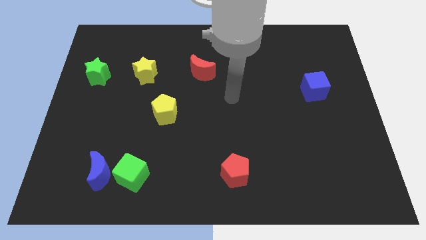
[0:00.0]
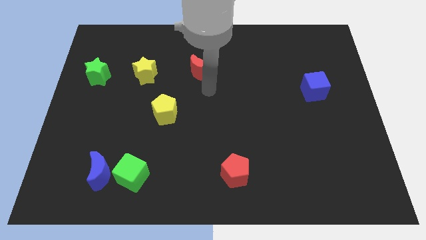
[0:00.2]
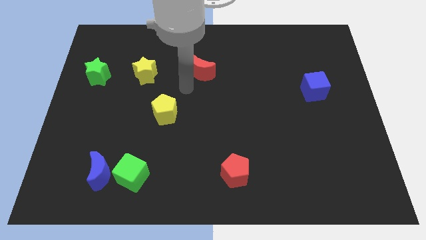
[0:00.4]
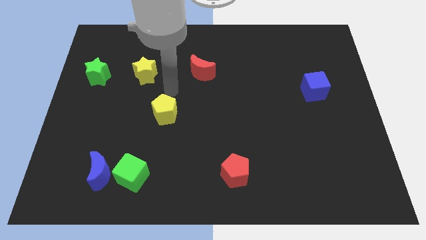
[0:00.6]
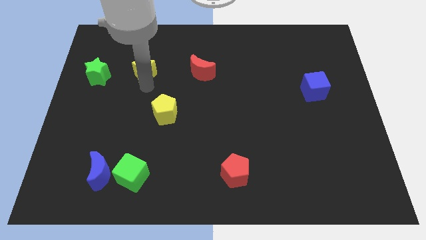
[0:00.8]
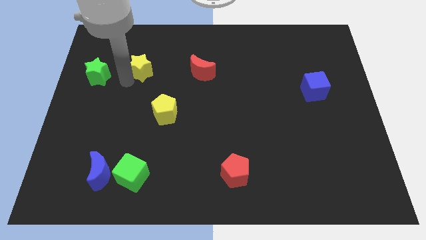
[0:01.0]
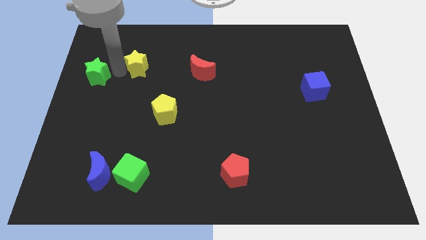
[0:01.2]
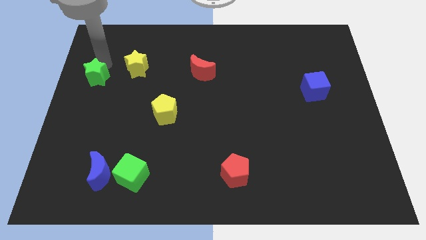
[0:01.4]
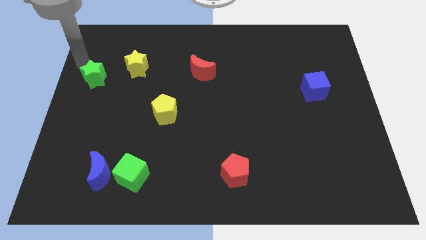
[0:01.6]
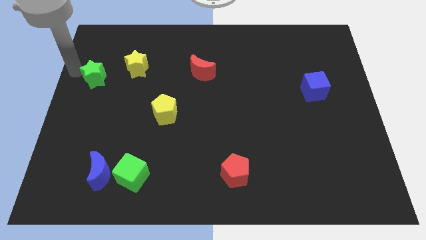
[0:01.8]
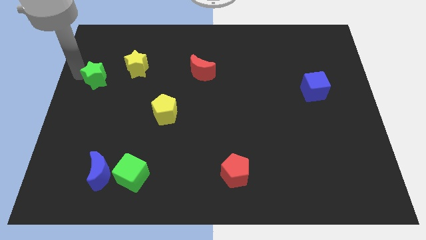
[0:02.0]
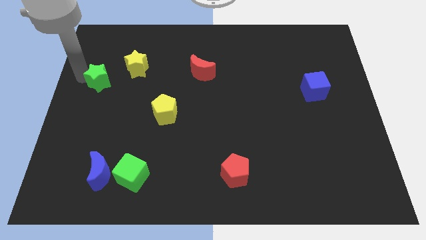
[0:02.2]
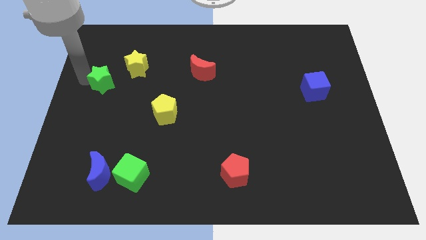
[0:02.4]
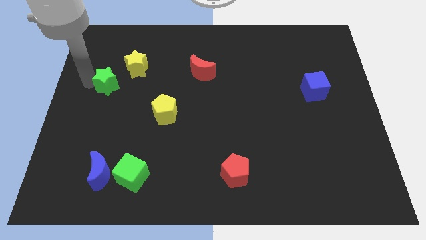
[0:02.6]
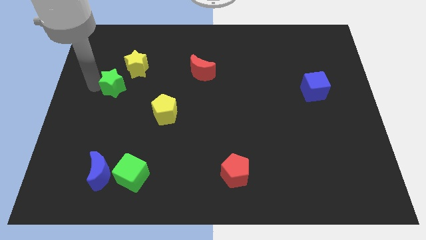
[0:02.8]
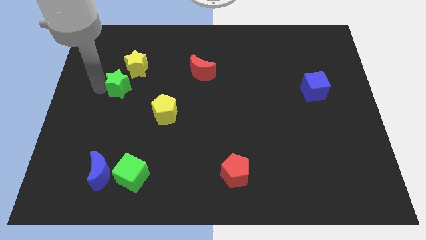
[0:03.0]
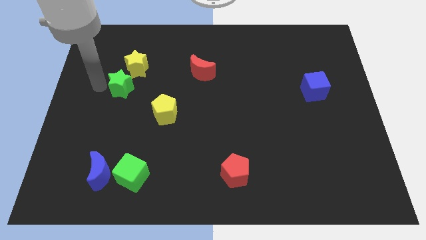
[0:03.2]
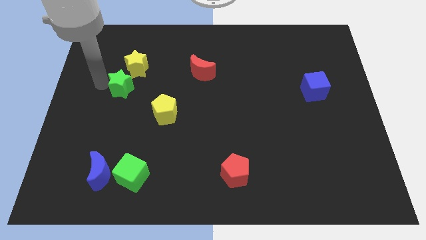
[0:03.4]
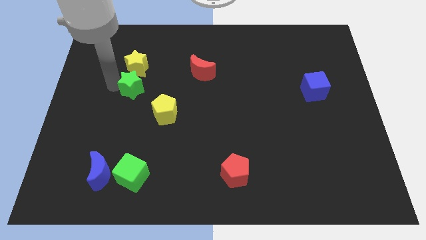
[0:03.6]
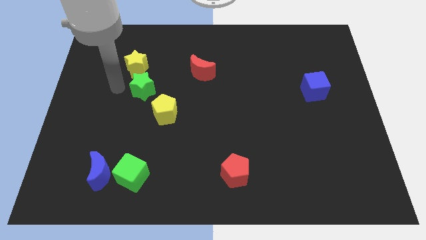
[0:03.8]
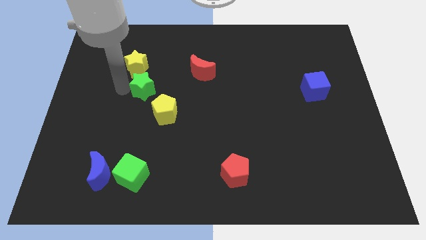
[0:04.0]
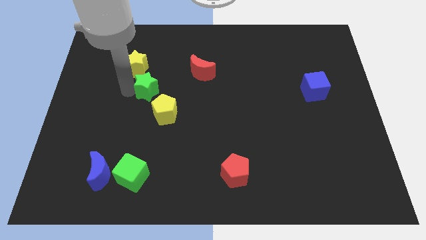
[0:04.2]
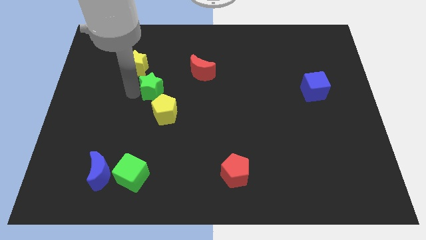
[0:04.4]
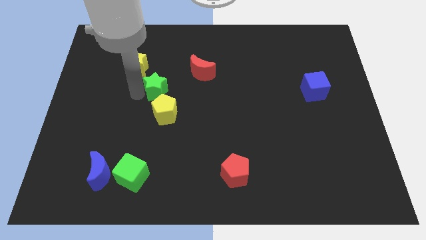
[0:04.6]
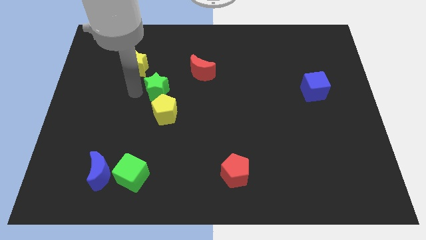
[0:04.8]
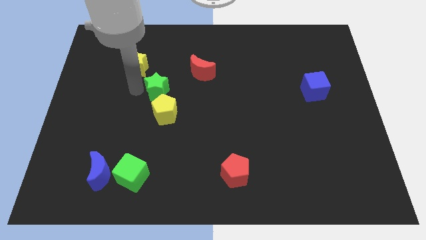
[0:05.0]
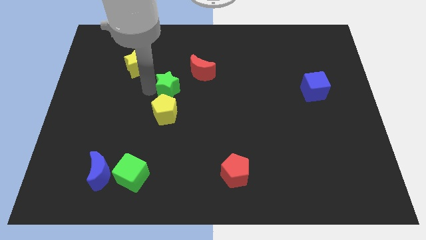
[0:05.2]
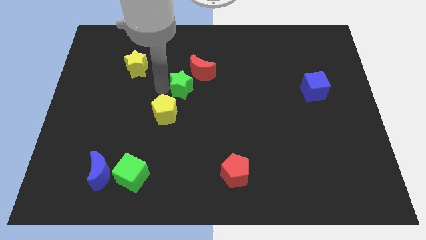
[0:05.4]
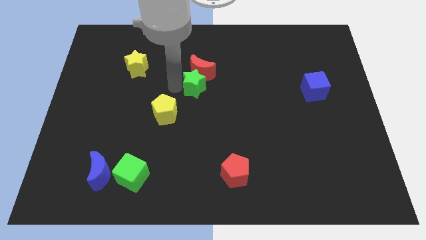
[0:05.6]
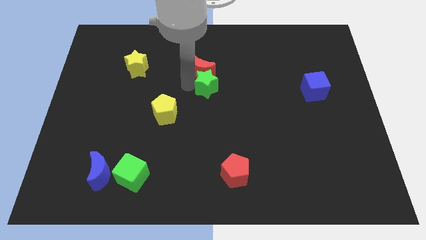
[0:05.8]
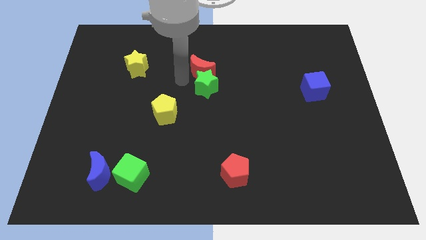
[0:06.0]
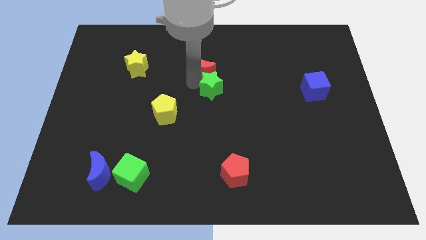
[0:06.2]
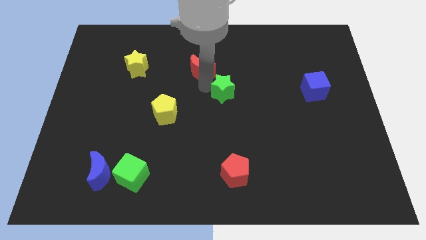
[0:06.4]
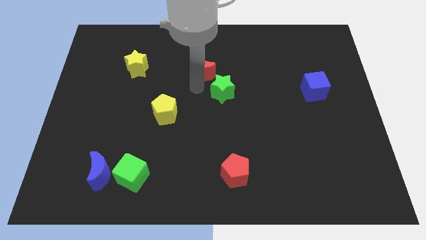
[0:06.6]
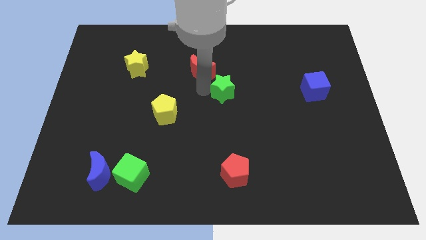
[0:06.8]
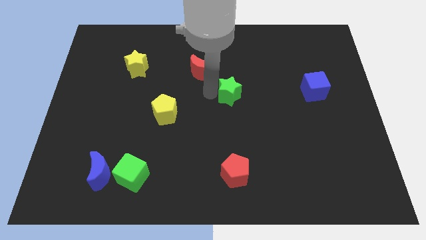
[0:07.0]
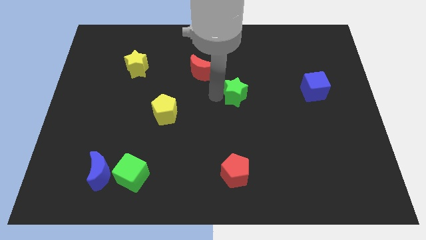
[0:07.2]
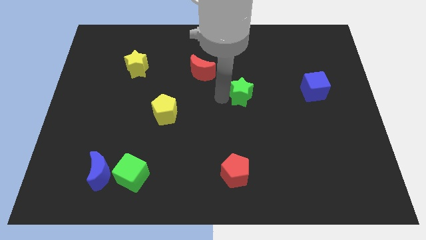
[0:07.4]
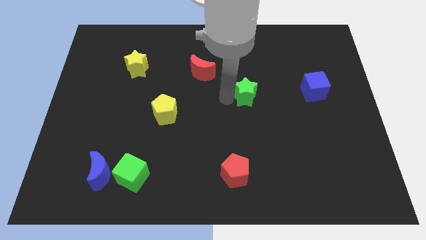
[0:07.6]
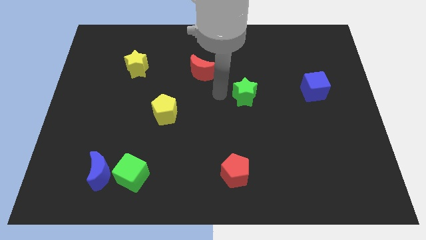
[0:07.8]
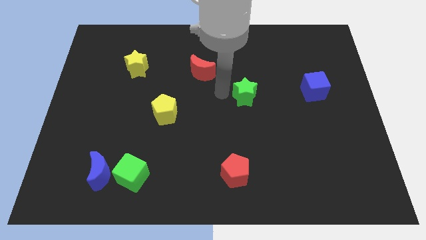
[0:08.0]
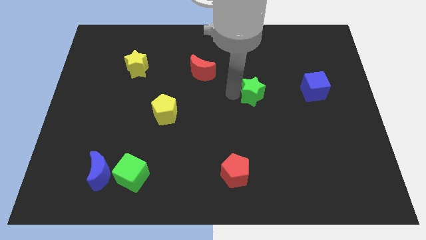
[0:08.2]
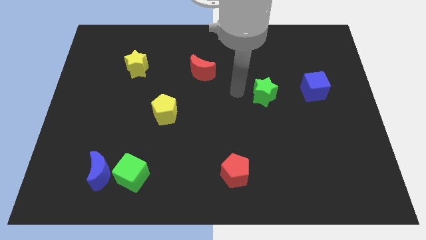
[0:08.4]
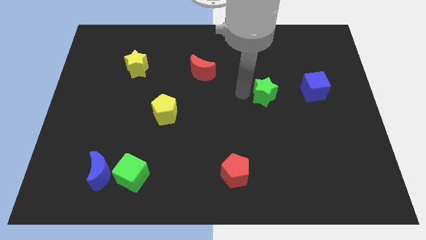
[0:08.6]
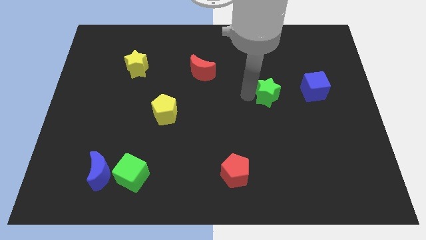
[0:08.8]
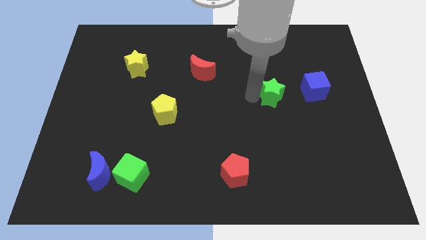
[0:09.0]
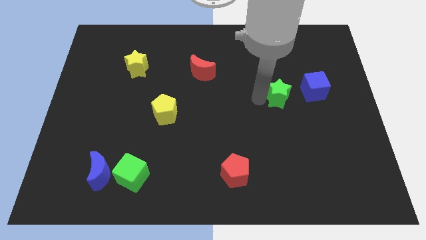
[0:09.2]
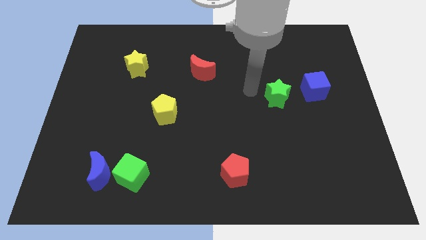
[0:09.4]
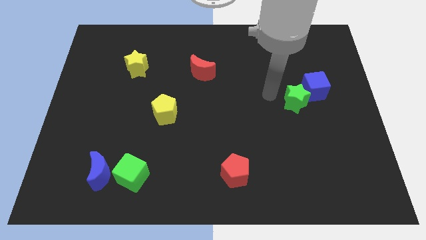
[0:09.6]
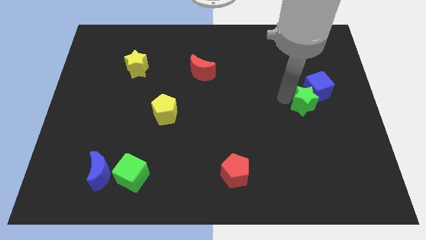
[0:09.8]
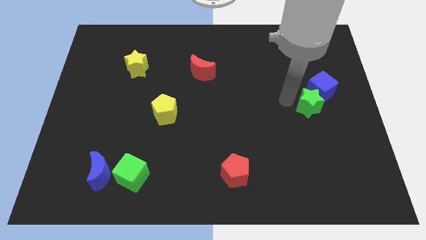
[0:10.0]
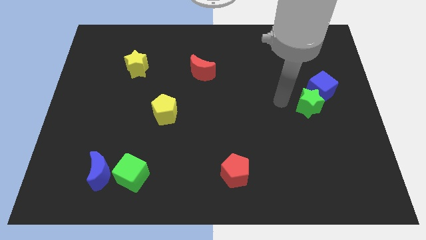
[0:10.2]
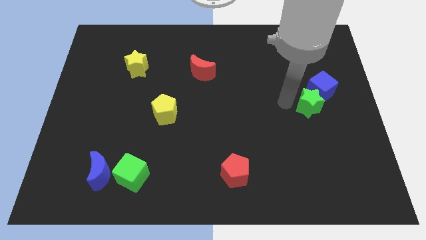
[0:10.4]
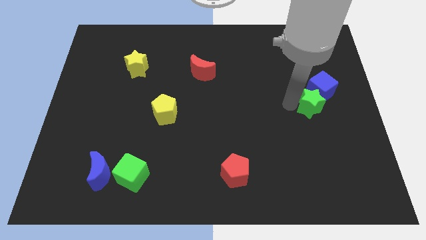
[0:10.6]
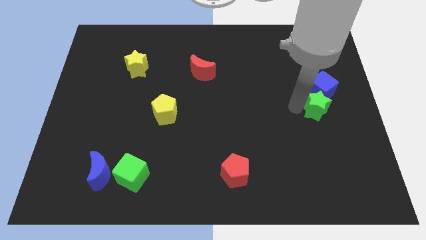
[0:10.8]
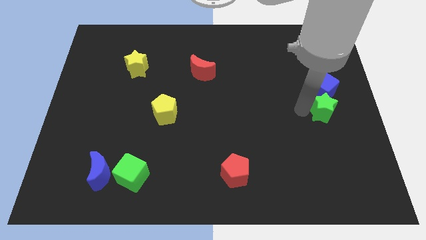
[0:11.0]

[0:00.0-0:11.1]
put the green star to the center right

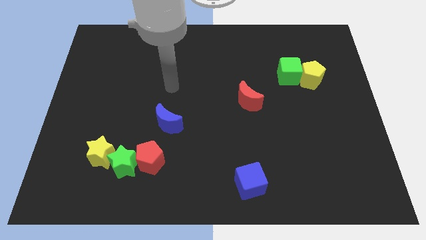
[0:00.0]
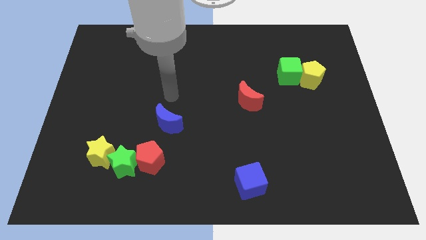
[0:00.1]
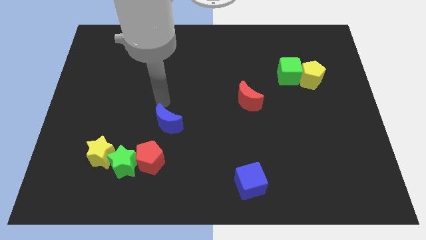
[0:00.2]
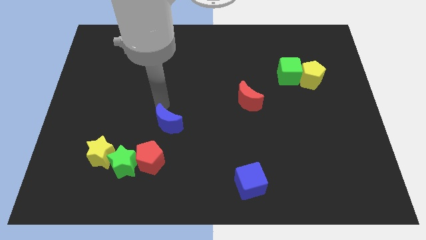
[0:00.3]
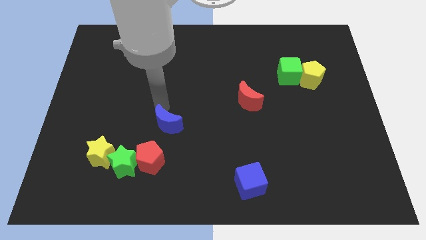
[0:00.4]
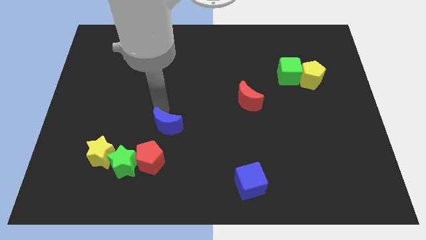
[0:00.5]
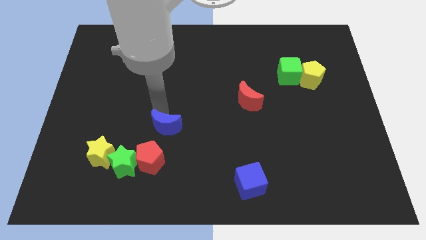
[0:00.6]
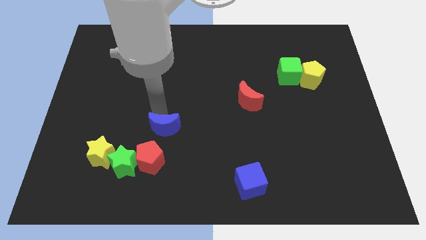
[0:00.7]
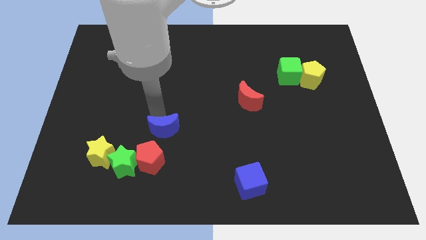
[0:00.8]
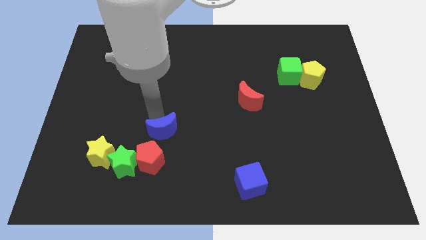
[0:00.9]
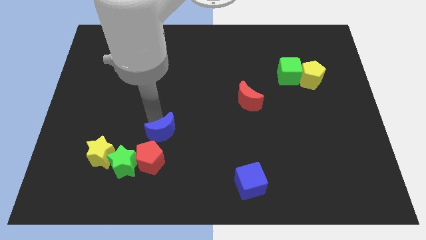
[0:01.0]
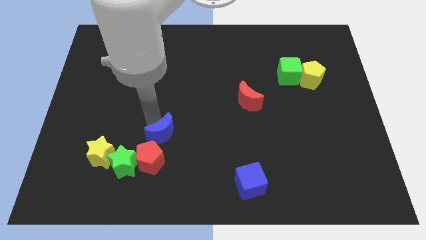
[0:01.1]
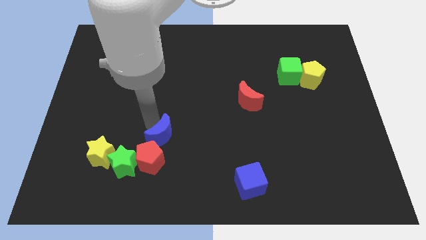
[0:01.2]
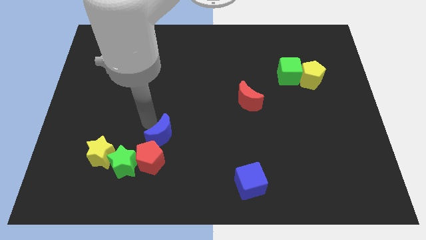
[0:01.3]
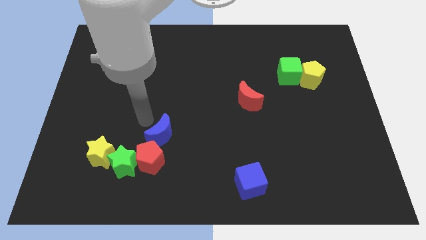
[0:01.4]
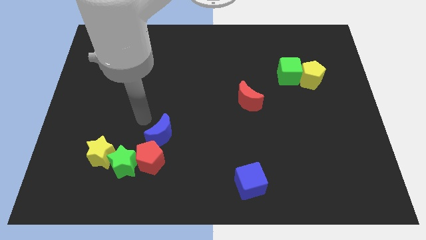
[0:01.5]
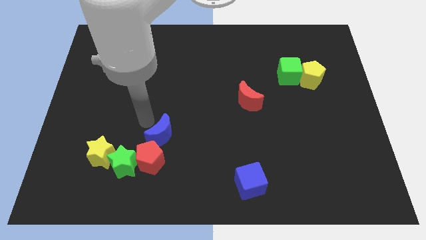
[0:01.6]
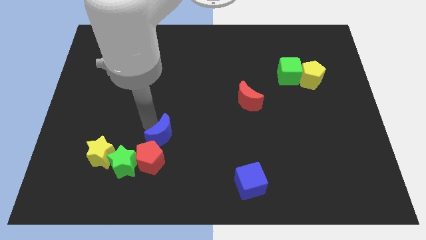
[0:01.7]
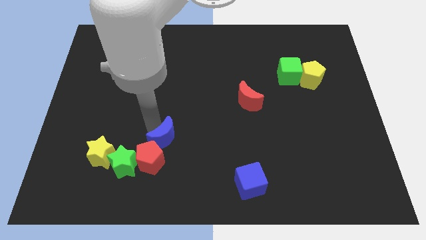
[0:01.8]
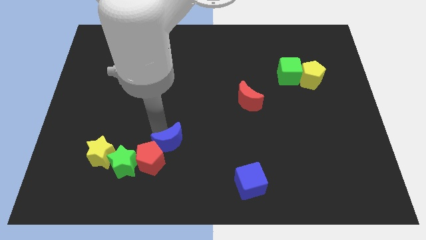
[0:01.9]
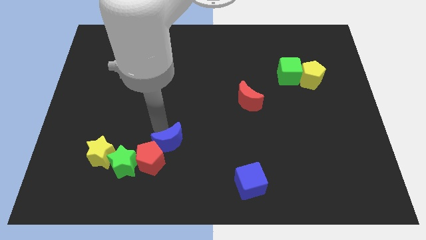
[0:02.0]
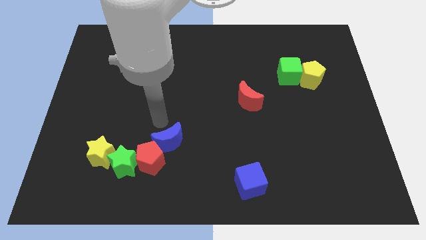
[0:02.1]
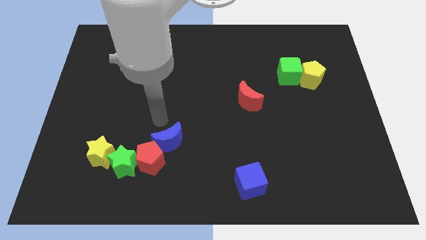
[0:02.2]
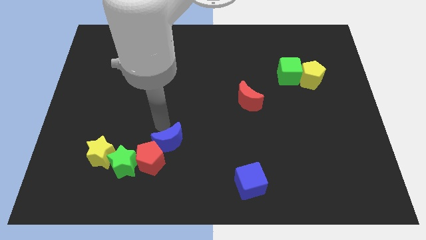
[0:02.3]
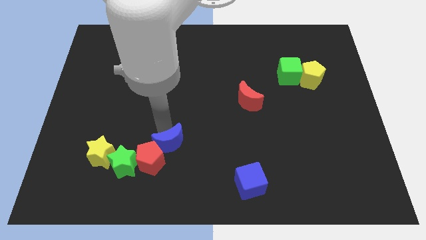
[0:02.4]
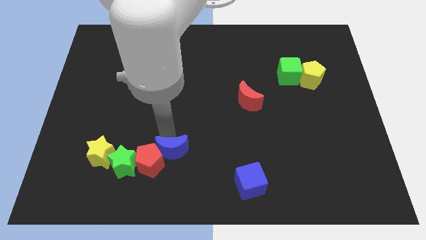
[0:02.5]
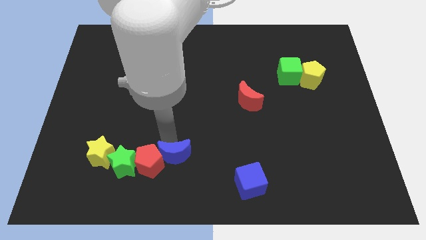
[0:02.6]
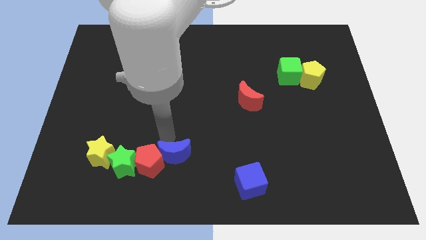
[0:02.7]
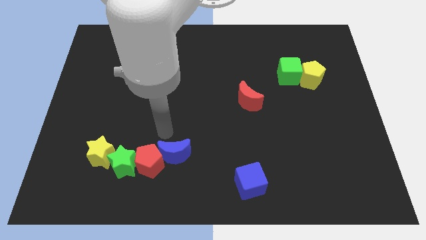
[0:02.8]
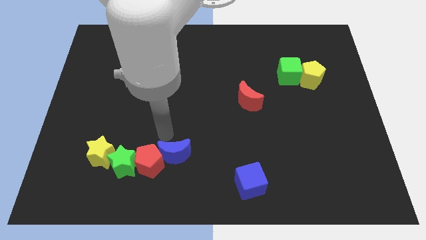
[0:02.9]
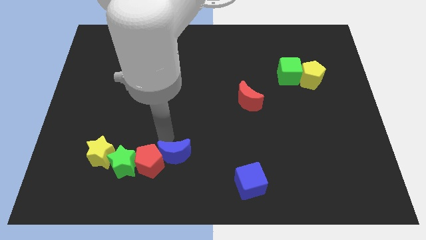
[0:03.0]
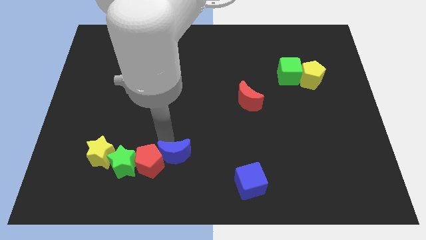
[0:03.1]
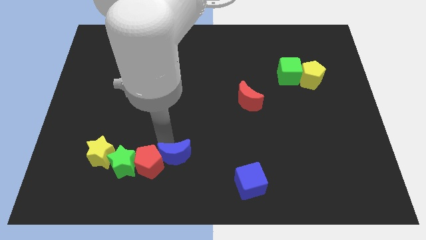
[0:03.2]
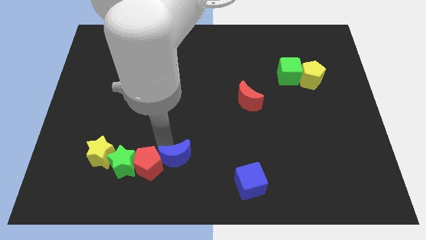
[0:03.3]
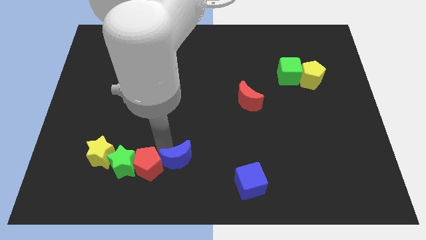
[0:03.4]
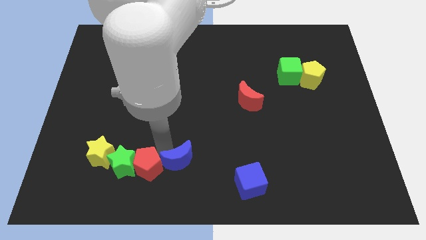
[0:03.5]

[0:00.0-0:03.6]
put the blue moon to the bottom
